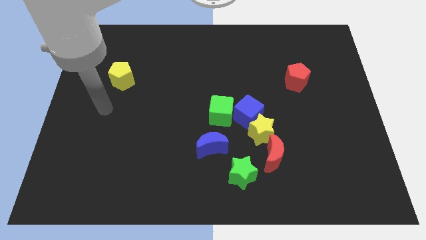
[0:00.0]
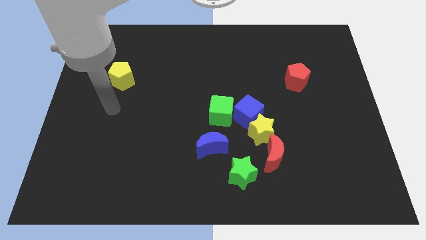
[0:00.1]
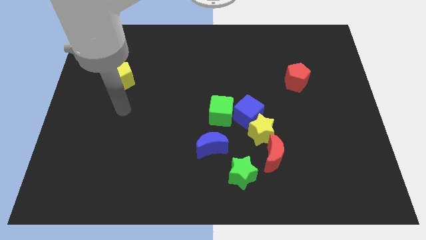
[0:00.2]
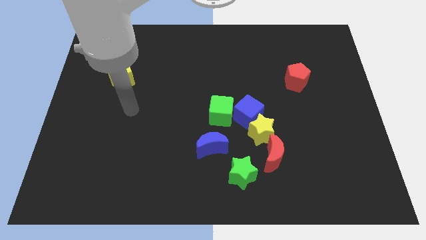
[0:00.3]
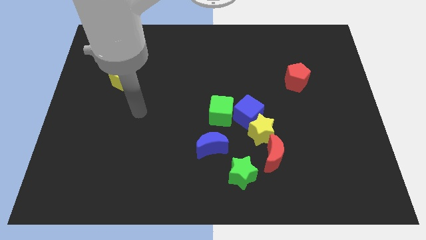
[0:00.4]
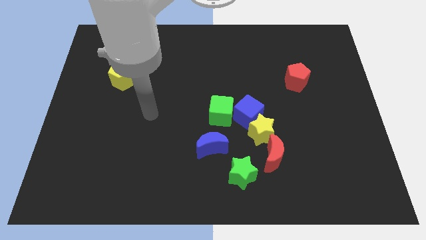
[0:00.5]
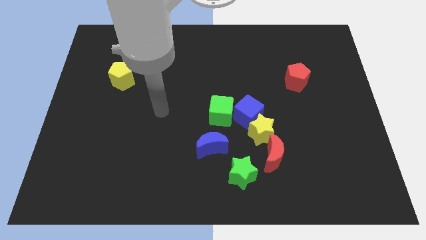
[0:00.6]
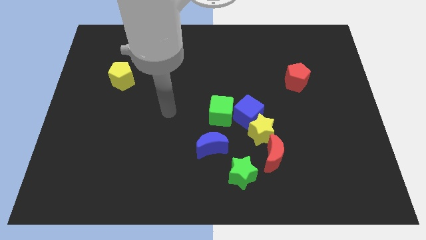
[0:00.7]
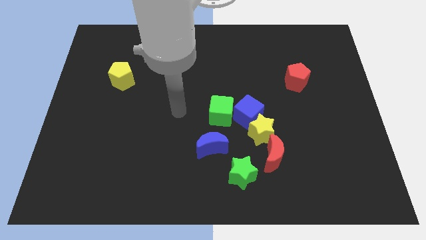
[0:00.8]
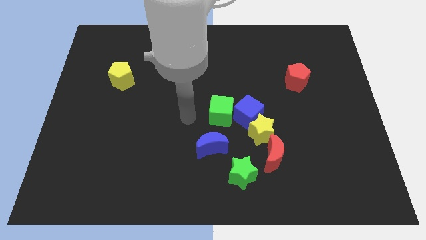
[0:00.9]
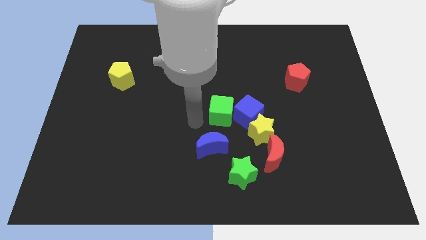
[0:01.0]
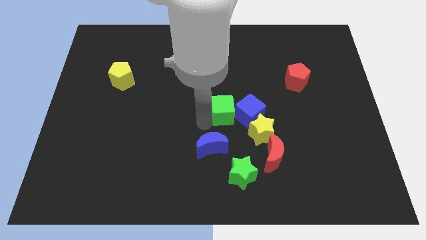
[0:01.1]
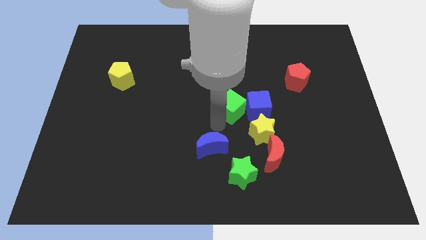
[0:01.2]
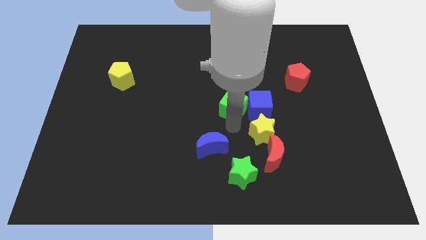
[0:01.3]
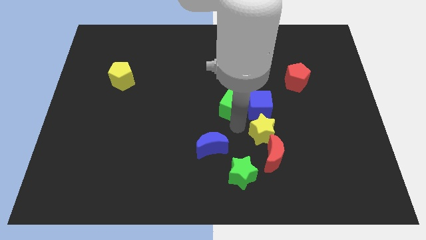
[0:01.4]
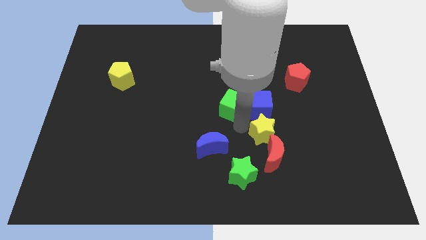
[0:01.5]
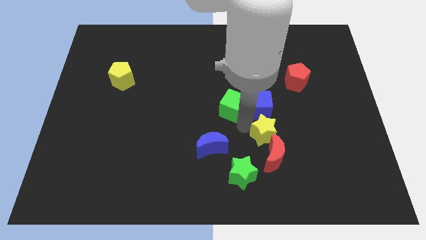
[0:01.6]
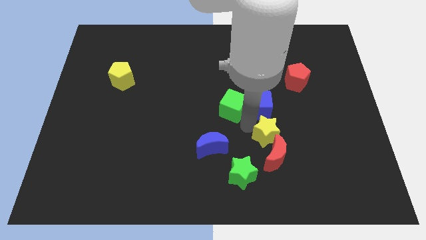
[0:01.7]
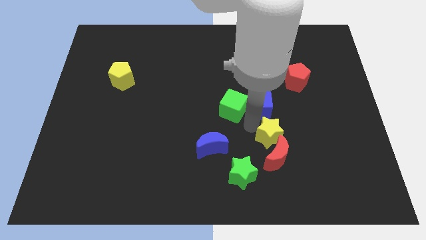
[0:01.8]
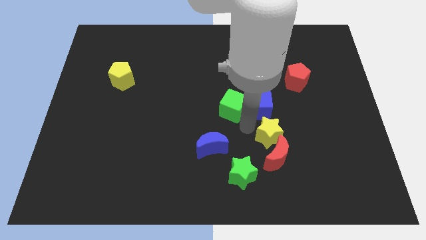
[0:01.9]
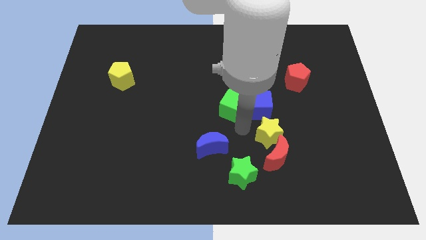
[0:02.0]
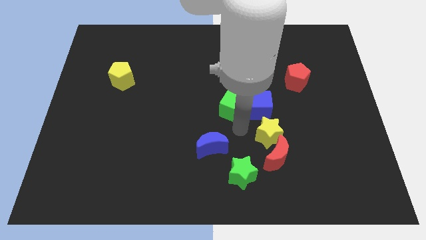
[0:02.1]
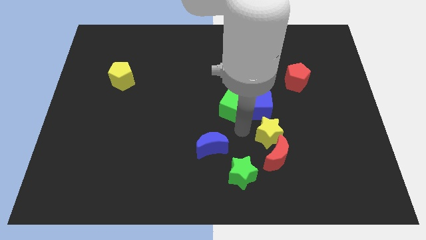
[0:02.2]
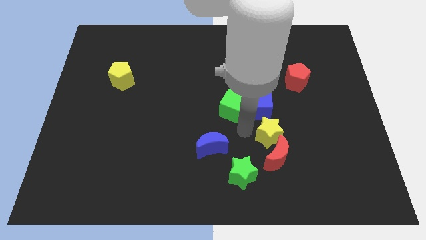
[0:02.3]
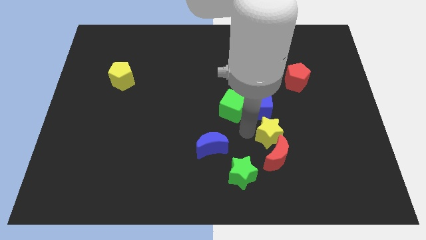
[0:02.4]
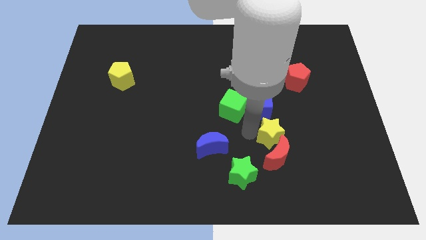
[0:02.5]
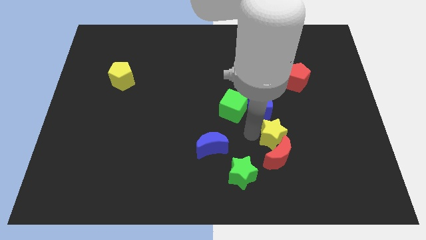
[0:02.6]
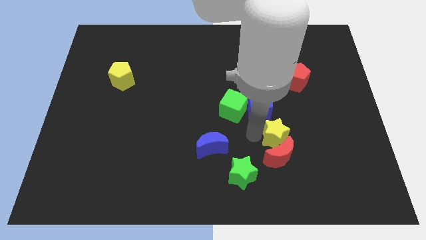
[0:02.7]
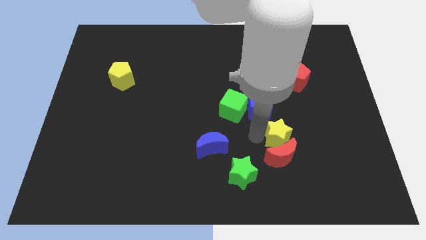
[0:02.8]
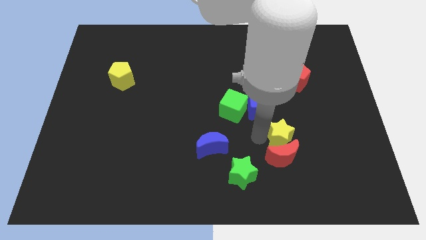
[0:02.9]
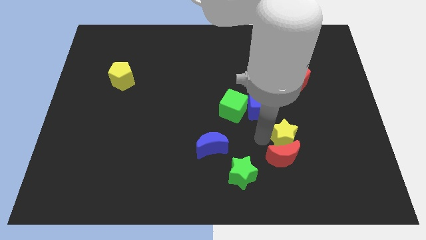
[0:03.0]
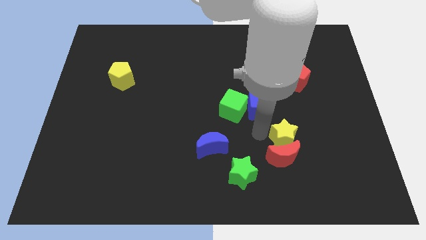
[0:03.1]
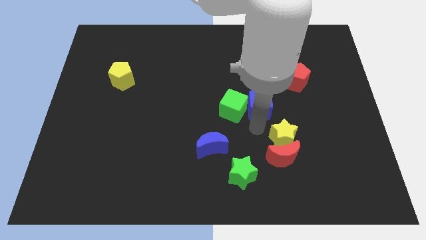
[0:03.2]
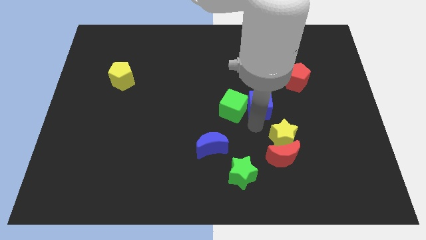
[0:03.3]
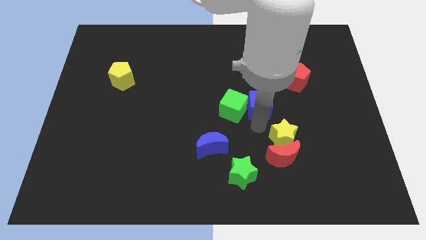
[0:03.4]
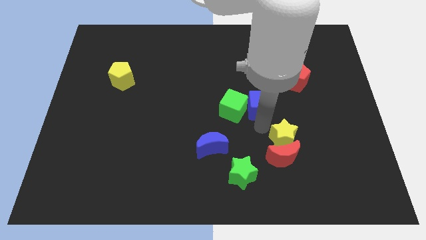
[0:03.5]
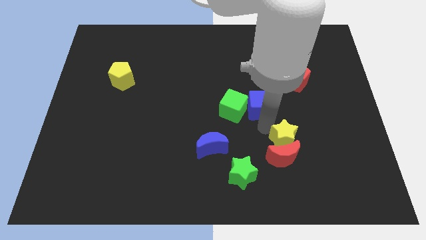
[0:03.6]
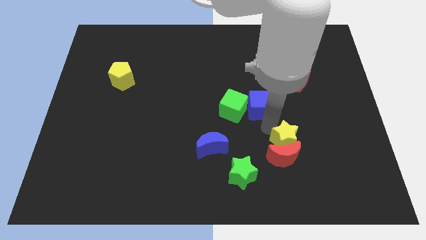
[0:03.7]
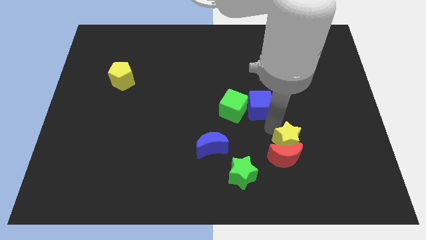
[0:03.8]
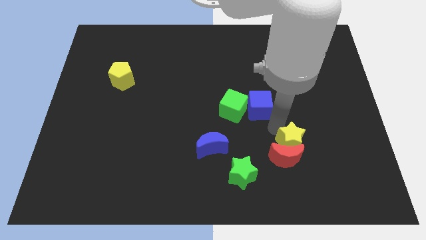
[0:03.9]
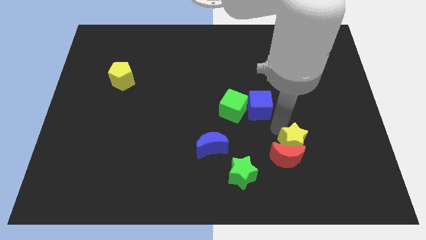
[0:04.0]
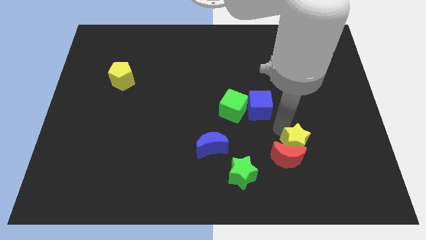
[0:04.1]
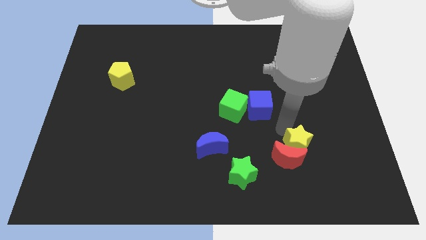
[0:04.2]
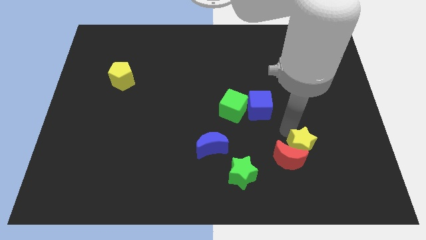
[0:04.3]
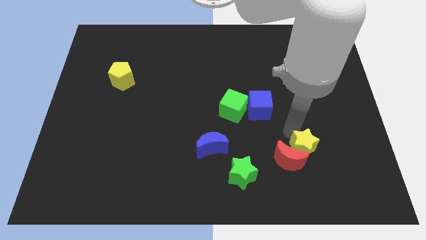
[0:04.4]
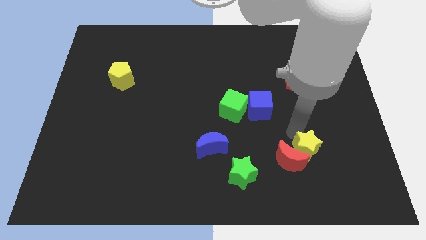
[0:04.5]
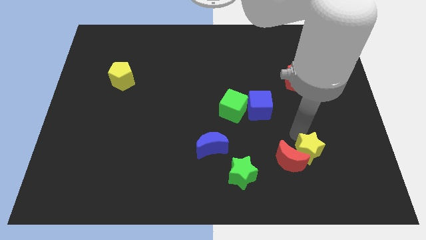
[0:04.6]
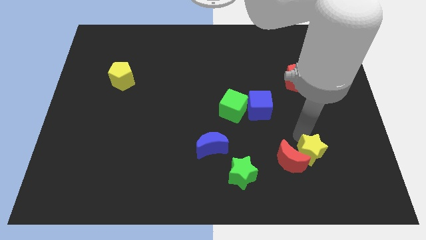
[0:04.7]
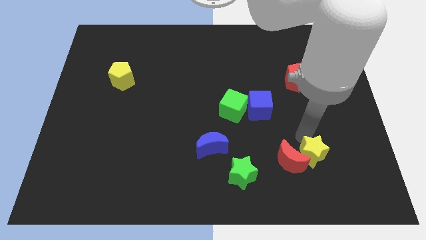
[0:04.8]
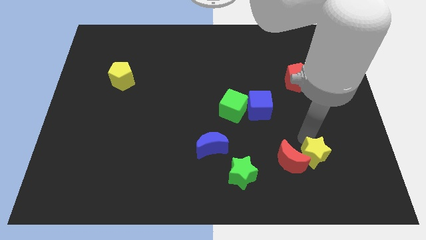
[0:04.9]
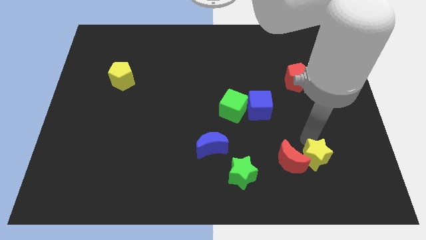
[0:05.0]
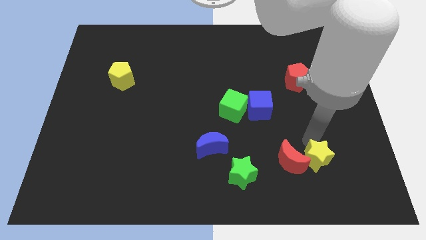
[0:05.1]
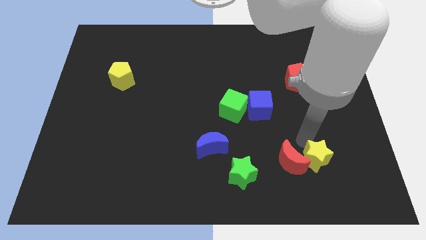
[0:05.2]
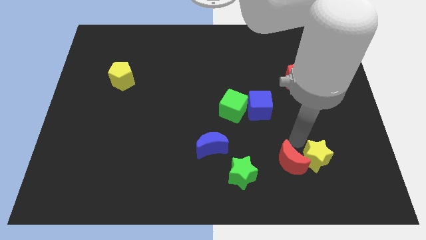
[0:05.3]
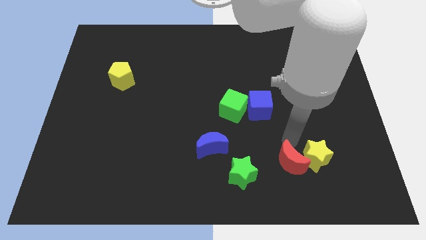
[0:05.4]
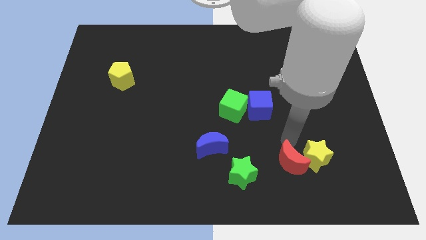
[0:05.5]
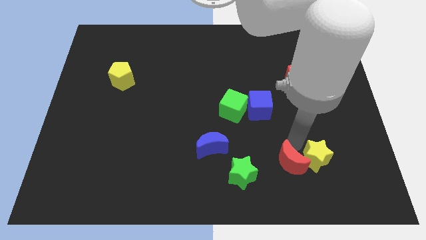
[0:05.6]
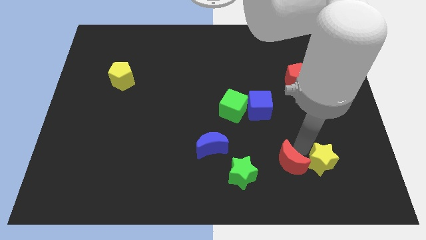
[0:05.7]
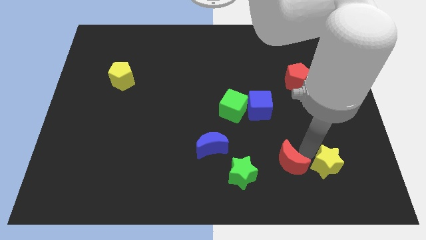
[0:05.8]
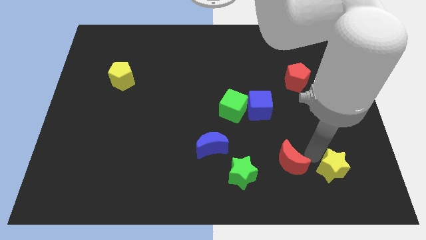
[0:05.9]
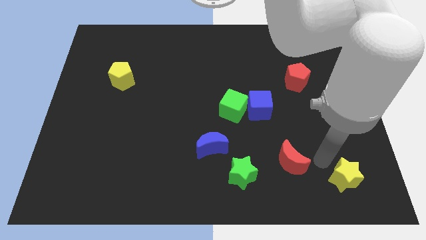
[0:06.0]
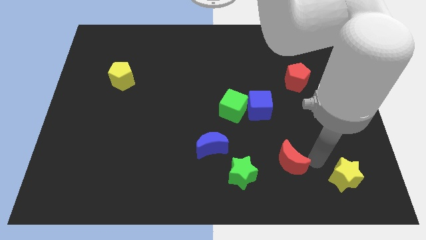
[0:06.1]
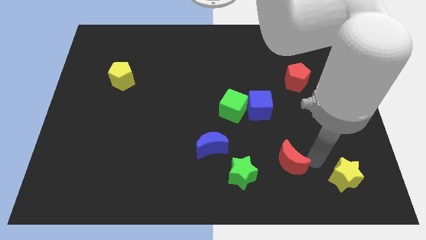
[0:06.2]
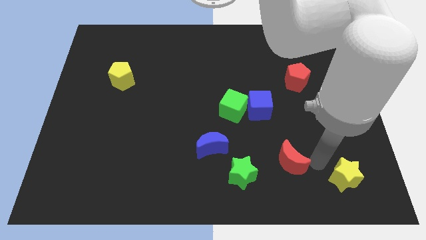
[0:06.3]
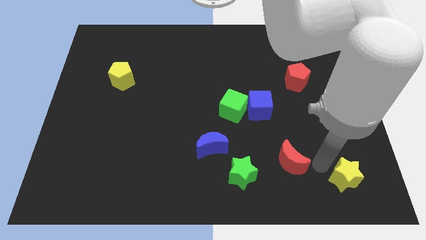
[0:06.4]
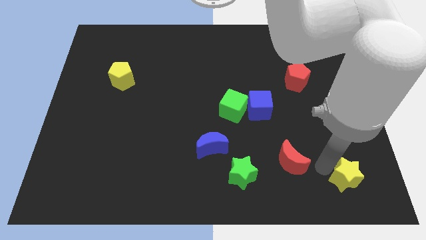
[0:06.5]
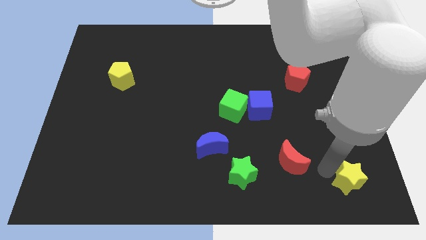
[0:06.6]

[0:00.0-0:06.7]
push the yellow star to the lower right corner
